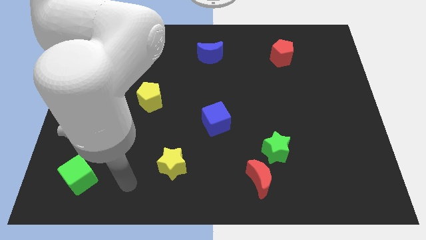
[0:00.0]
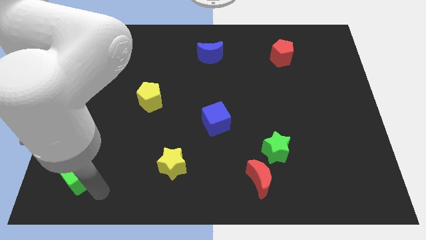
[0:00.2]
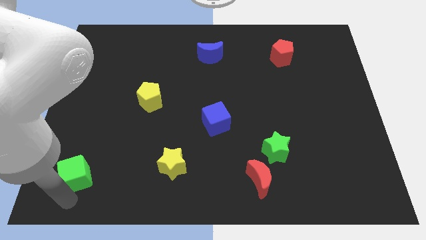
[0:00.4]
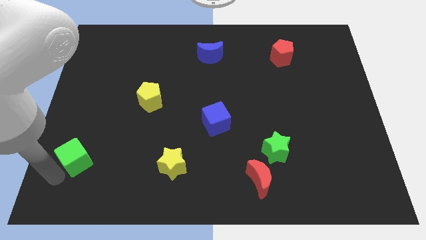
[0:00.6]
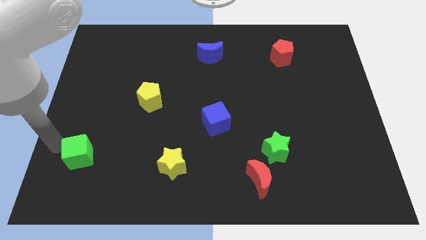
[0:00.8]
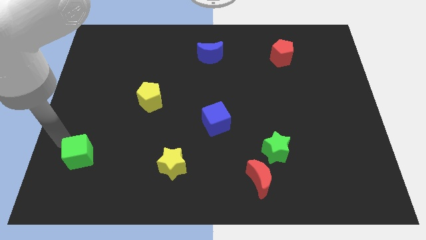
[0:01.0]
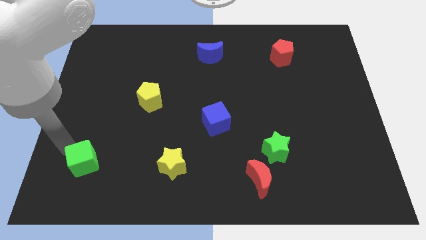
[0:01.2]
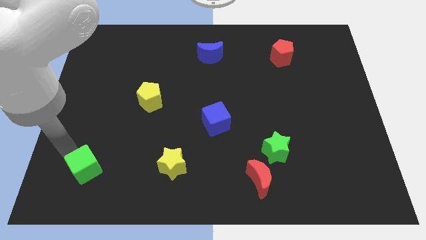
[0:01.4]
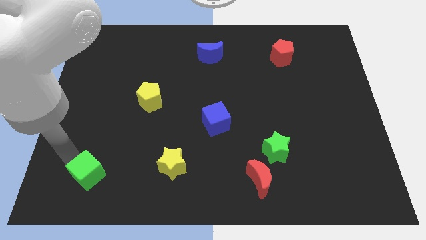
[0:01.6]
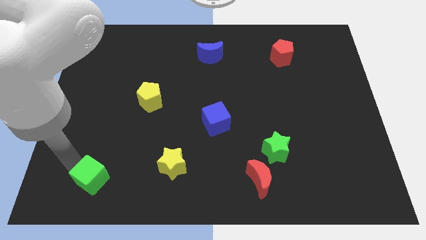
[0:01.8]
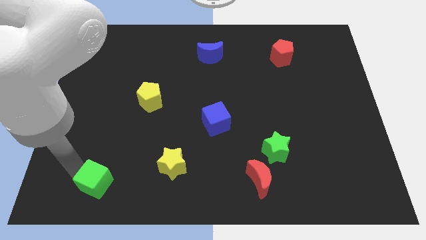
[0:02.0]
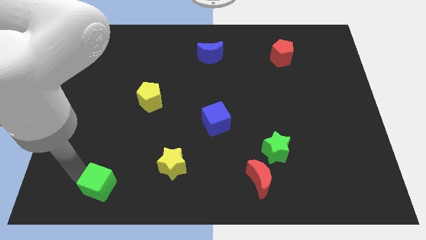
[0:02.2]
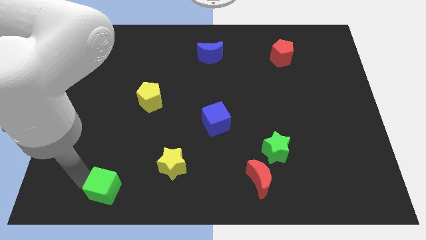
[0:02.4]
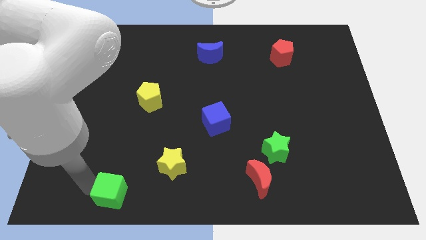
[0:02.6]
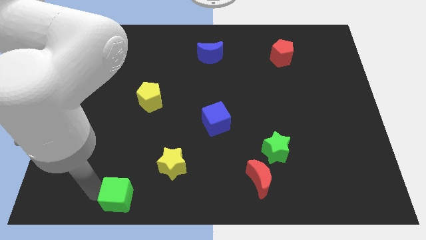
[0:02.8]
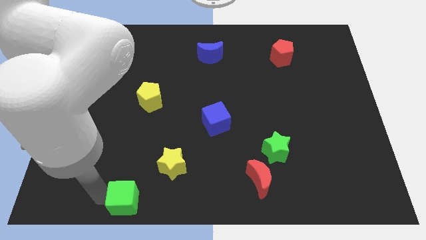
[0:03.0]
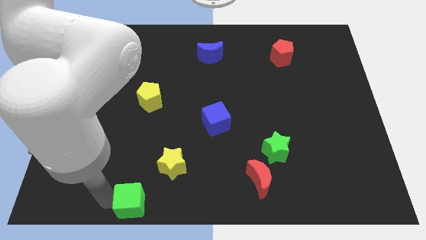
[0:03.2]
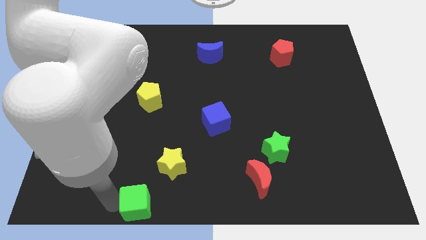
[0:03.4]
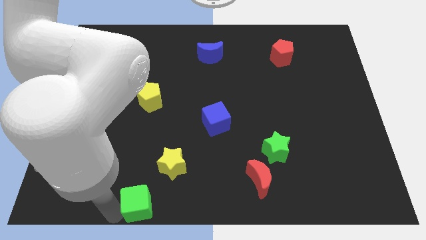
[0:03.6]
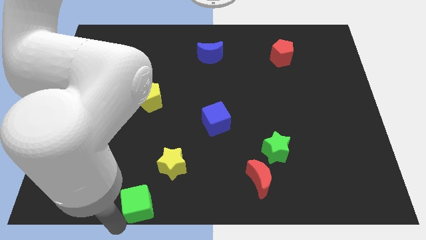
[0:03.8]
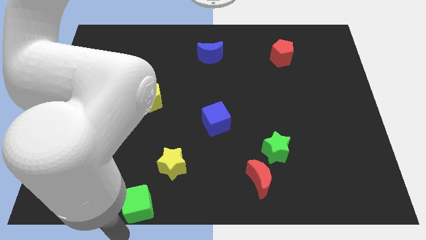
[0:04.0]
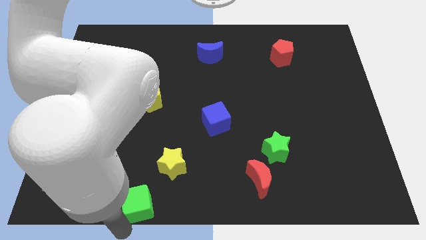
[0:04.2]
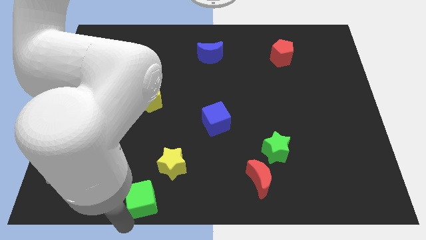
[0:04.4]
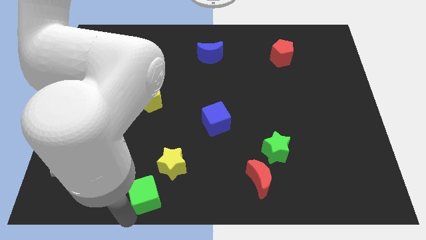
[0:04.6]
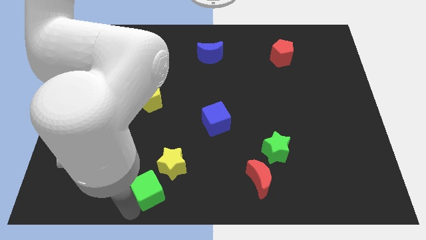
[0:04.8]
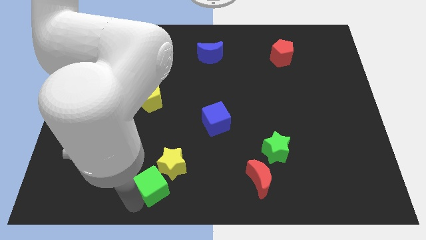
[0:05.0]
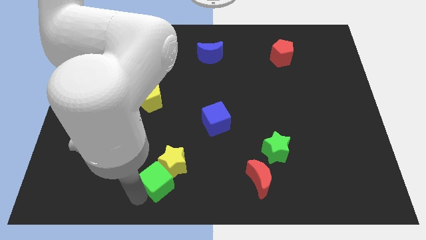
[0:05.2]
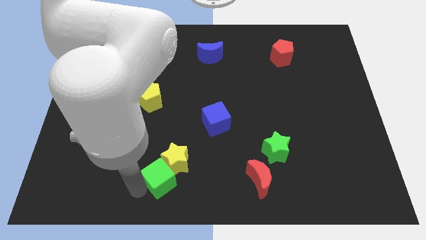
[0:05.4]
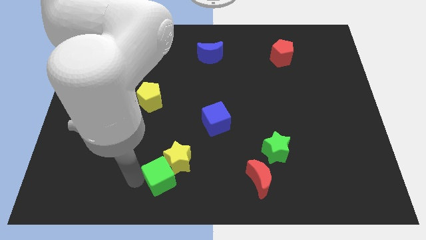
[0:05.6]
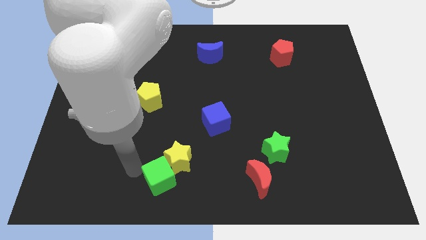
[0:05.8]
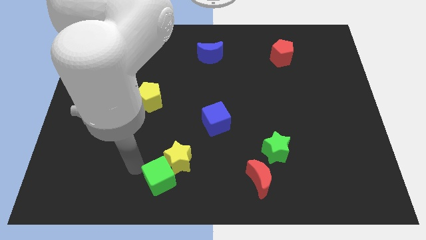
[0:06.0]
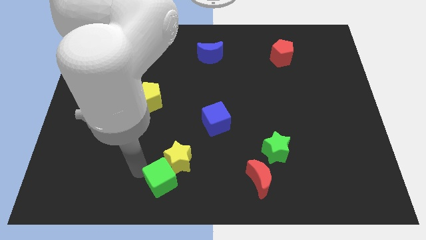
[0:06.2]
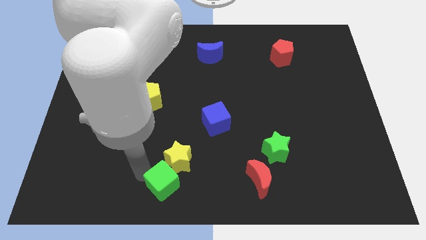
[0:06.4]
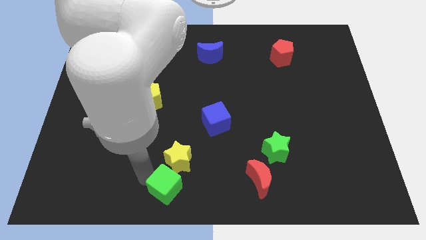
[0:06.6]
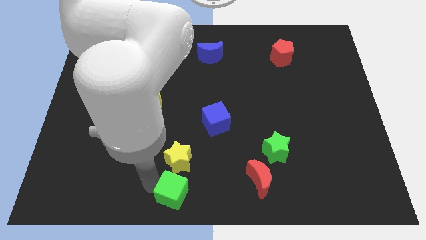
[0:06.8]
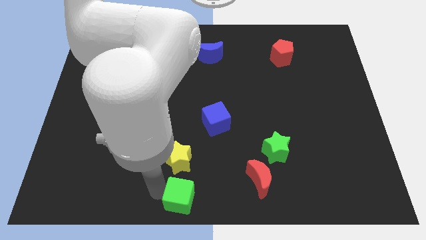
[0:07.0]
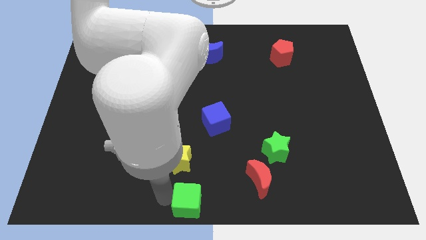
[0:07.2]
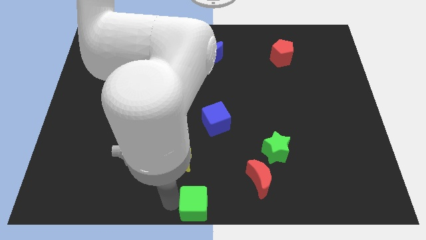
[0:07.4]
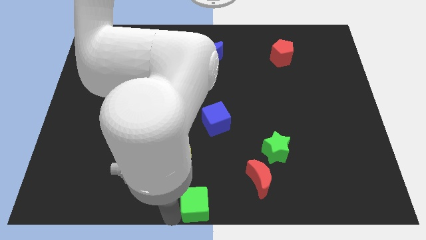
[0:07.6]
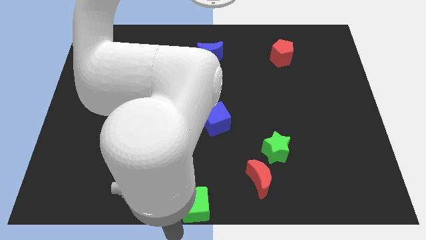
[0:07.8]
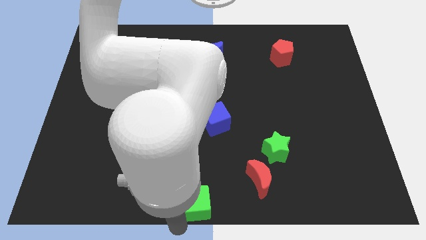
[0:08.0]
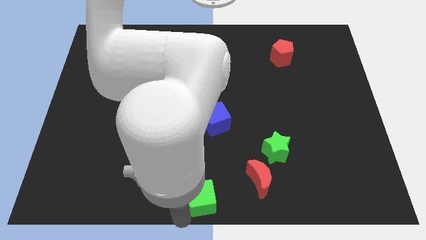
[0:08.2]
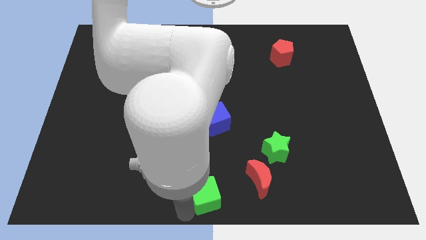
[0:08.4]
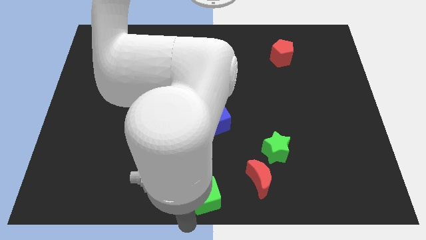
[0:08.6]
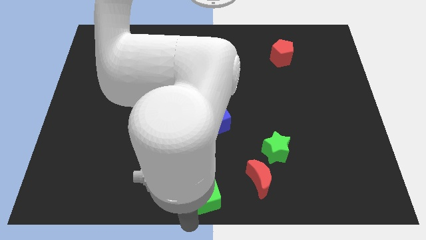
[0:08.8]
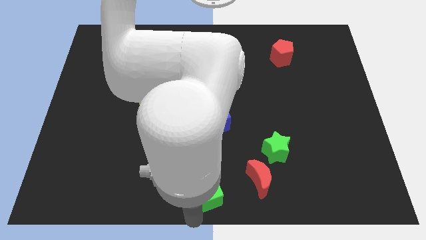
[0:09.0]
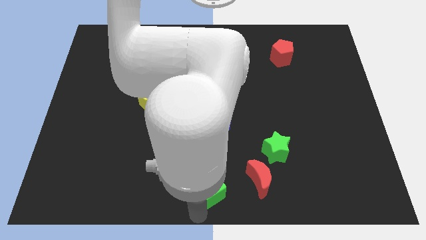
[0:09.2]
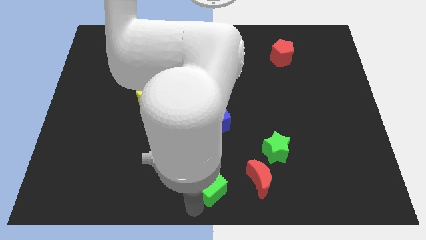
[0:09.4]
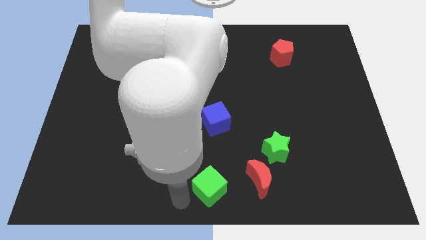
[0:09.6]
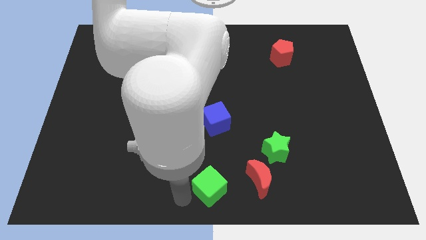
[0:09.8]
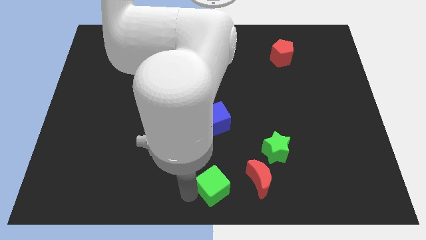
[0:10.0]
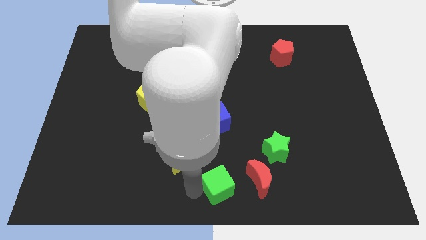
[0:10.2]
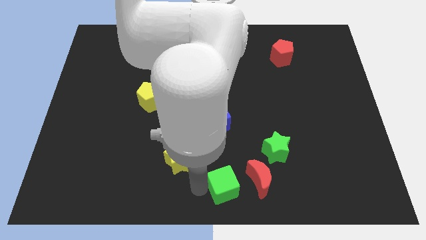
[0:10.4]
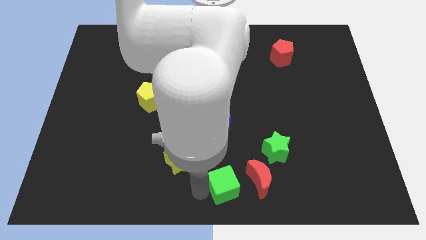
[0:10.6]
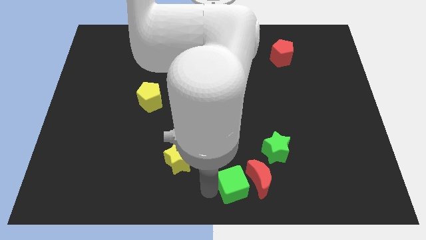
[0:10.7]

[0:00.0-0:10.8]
put the green cube to the red moon

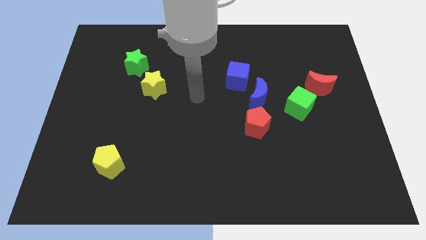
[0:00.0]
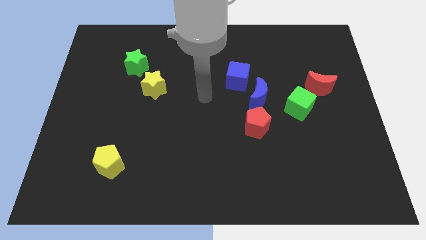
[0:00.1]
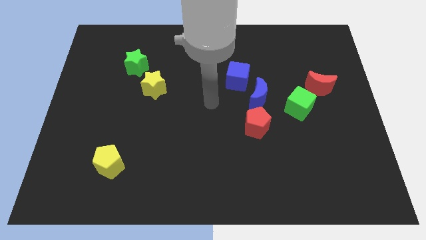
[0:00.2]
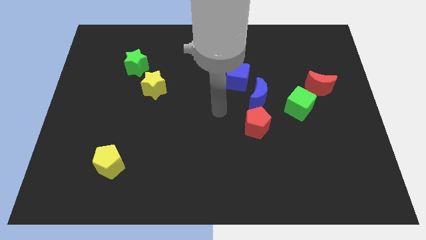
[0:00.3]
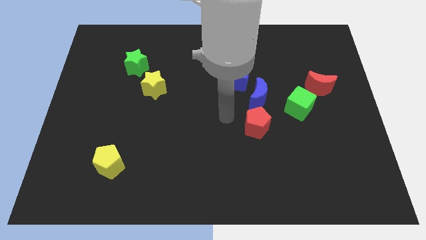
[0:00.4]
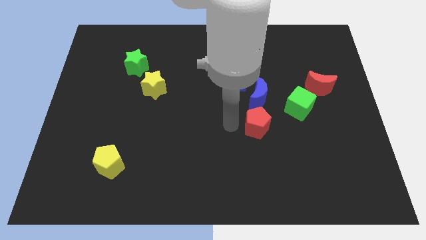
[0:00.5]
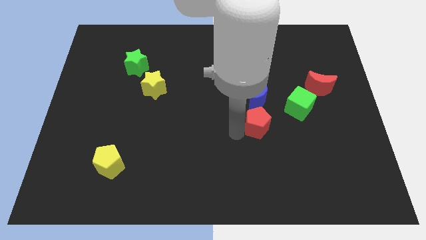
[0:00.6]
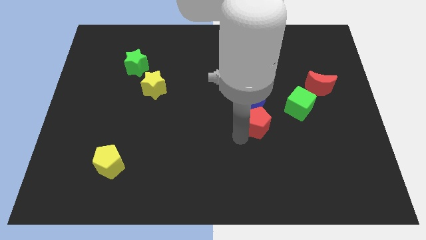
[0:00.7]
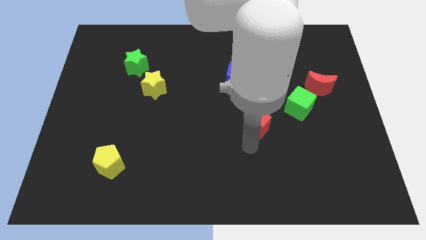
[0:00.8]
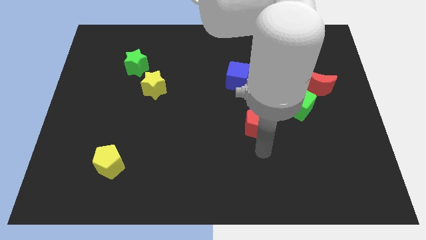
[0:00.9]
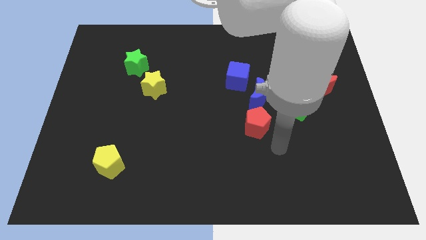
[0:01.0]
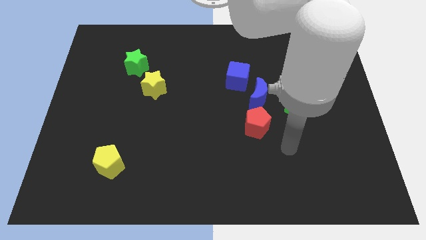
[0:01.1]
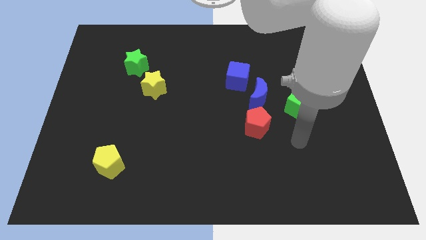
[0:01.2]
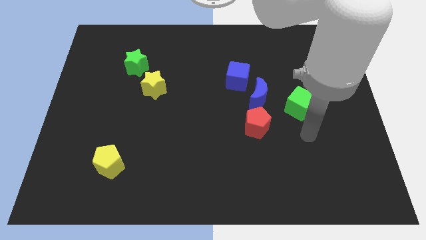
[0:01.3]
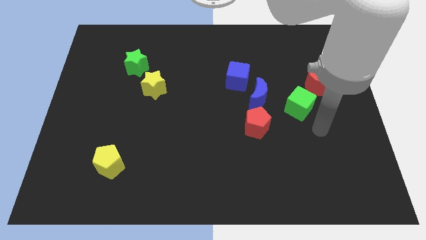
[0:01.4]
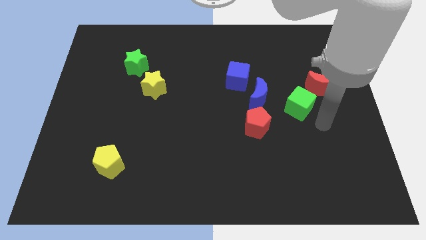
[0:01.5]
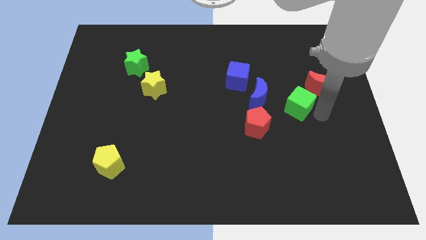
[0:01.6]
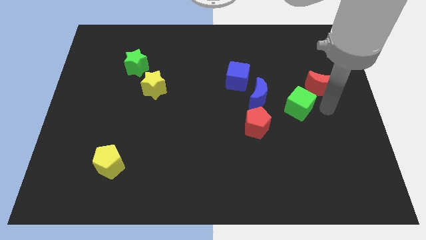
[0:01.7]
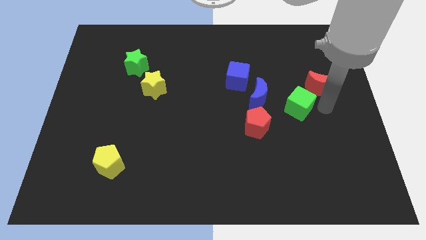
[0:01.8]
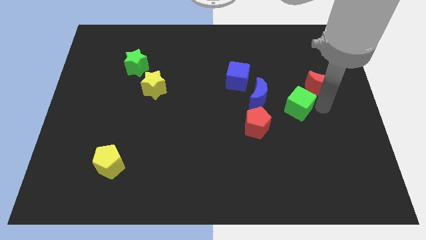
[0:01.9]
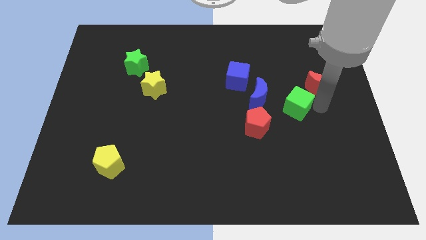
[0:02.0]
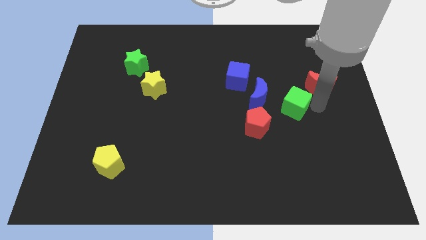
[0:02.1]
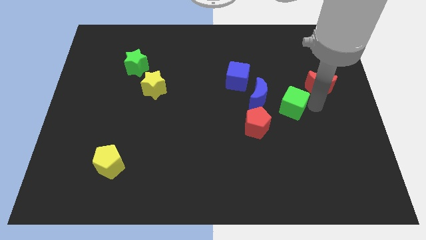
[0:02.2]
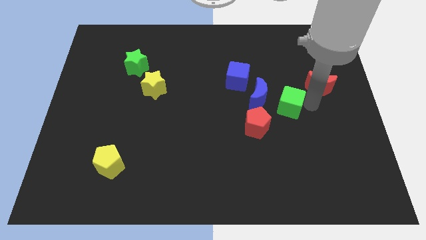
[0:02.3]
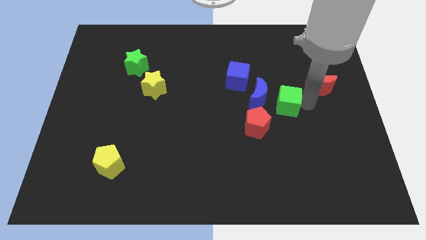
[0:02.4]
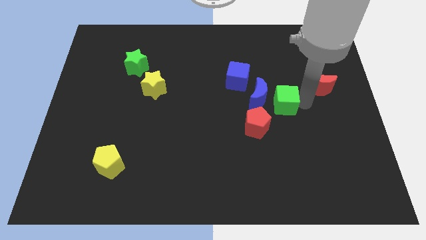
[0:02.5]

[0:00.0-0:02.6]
put the green cube close to the blue moon
